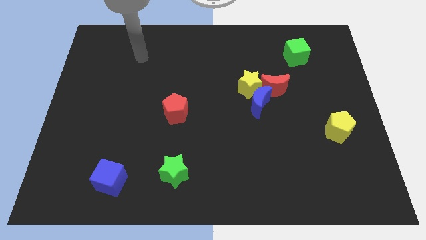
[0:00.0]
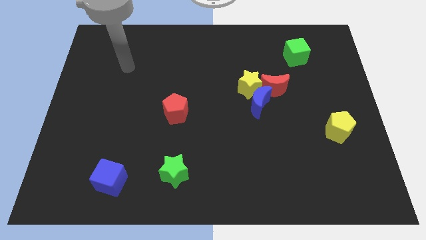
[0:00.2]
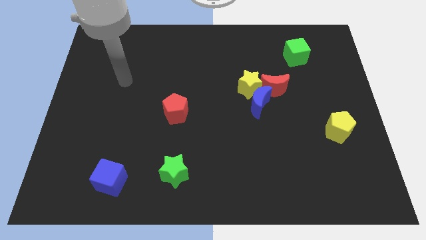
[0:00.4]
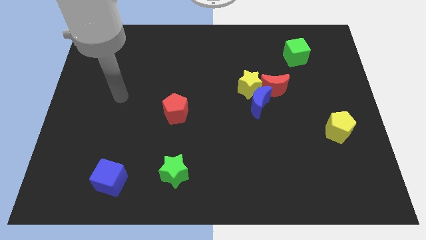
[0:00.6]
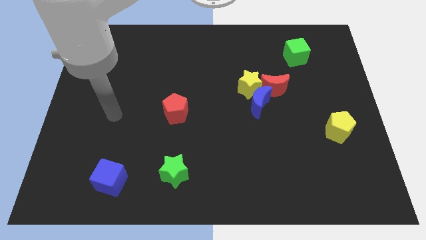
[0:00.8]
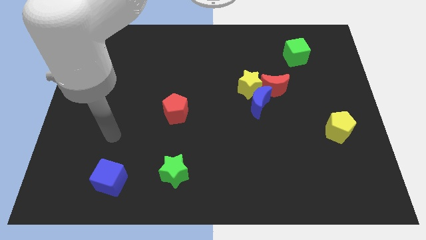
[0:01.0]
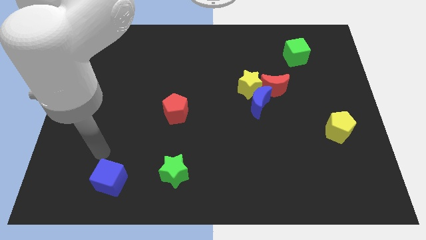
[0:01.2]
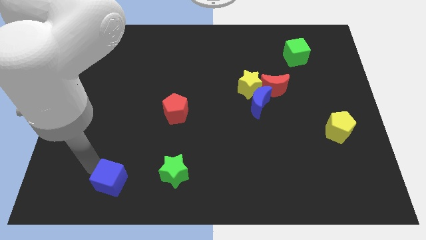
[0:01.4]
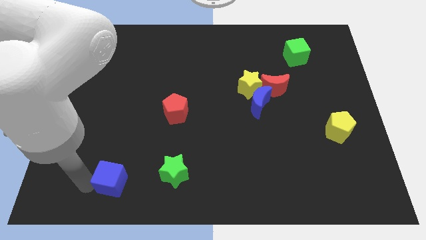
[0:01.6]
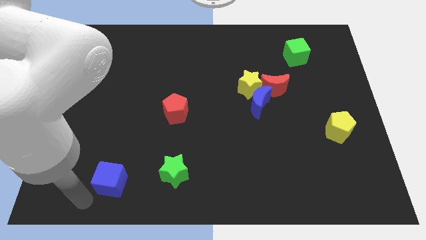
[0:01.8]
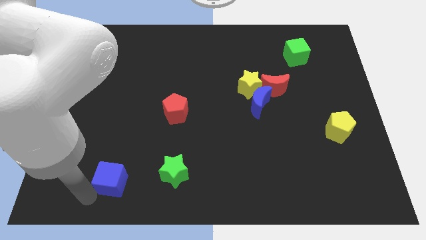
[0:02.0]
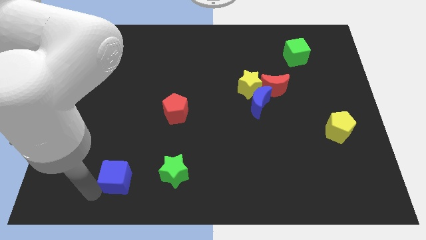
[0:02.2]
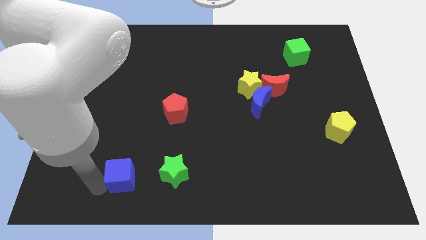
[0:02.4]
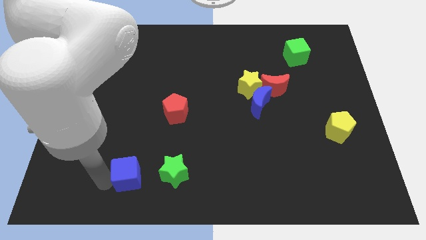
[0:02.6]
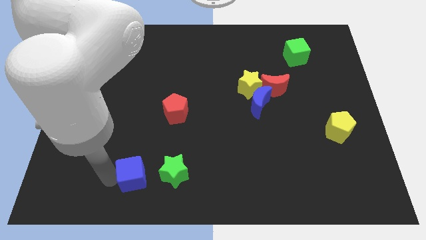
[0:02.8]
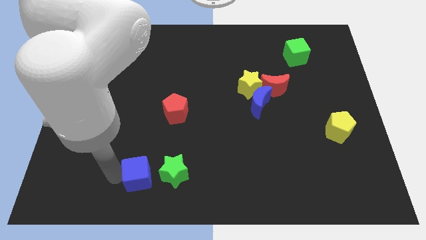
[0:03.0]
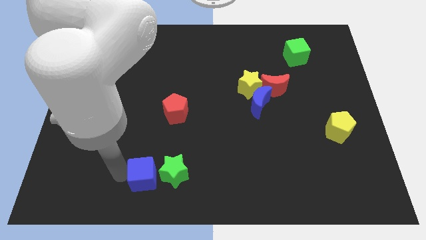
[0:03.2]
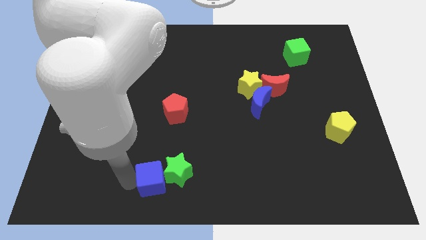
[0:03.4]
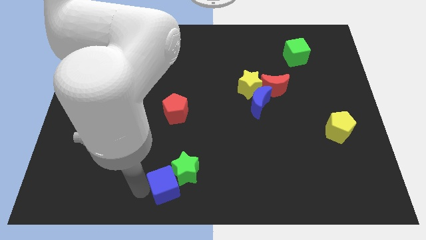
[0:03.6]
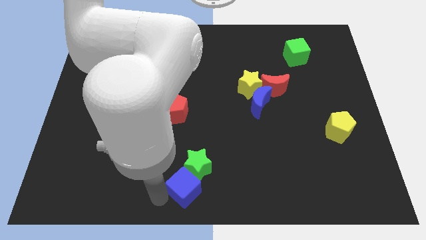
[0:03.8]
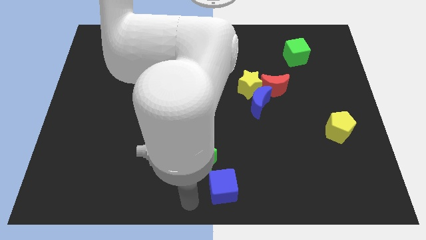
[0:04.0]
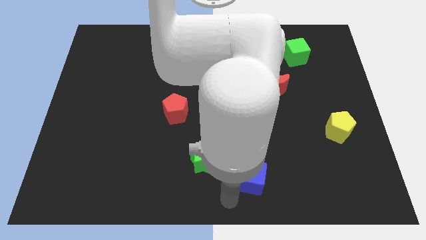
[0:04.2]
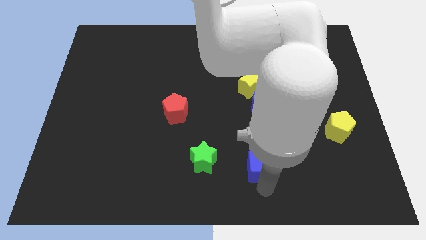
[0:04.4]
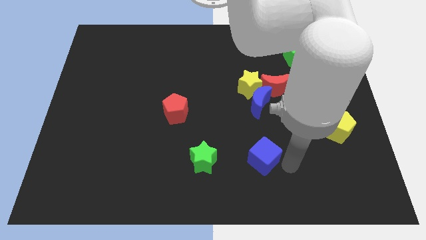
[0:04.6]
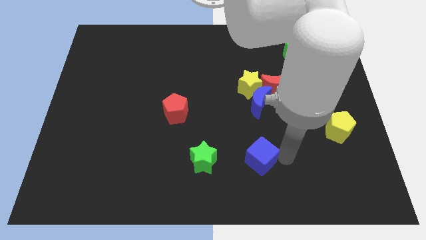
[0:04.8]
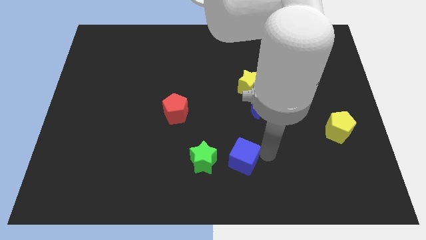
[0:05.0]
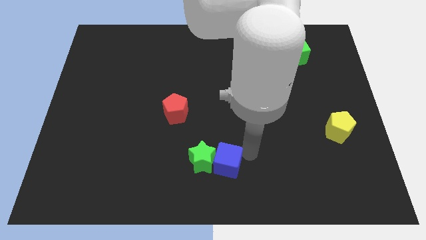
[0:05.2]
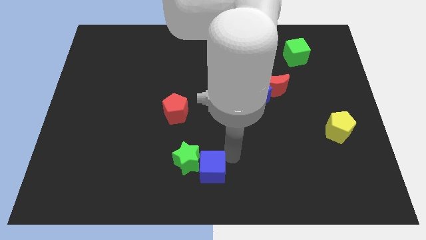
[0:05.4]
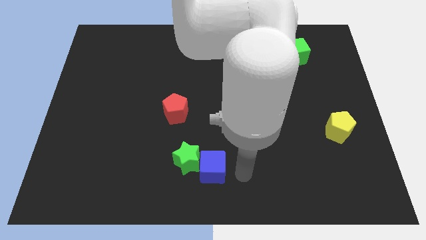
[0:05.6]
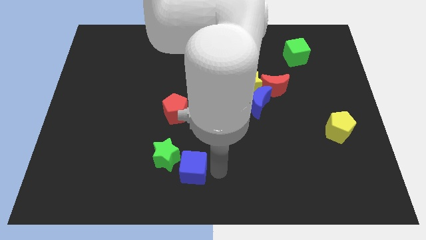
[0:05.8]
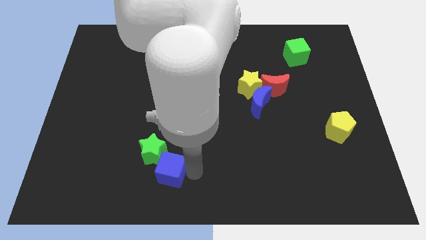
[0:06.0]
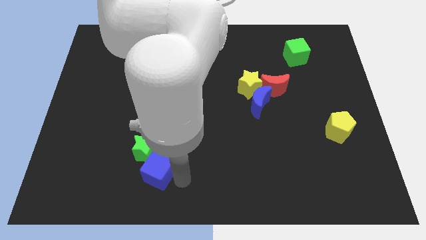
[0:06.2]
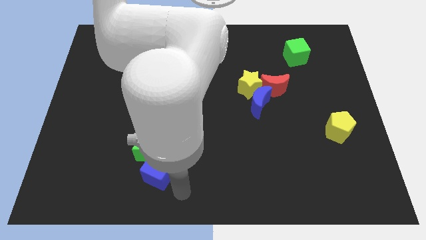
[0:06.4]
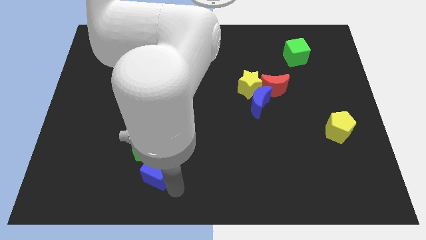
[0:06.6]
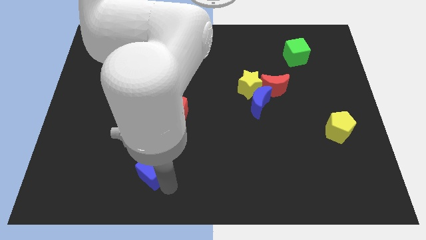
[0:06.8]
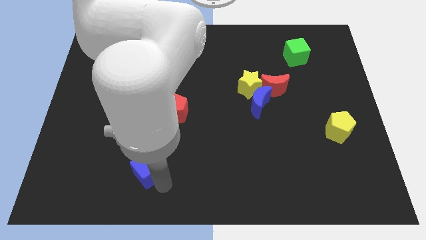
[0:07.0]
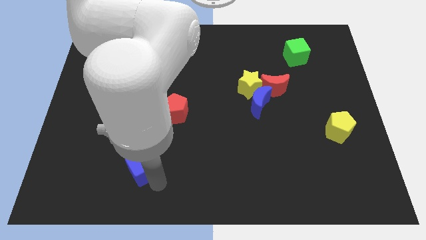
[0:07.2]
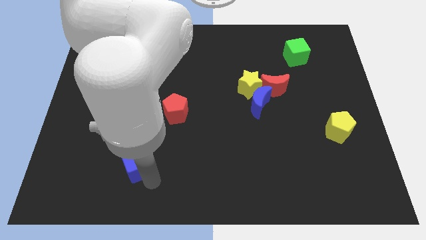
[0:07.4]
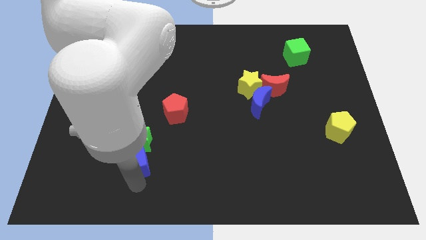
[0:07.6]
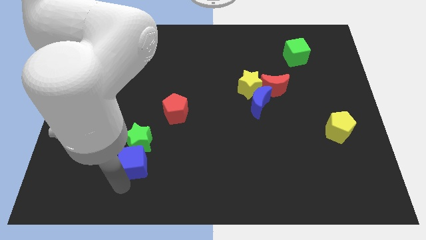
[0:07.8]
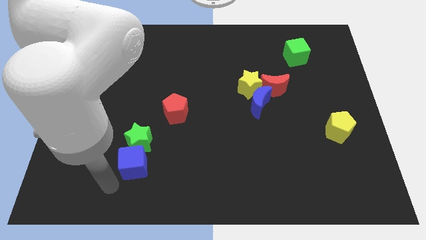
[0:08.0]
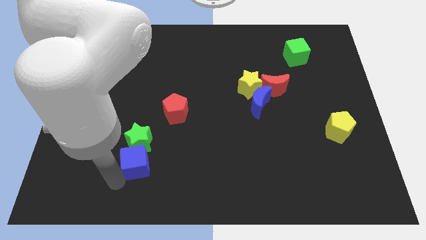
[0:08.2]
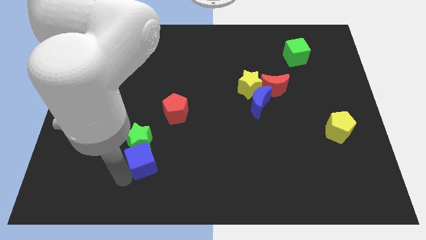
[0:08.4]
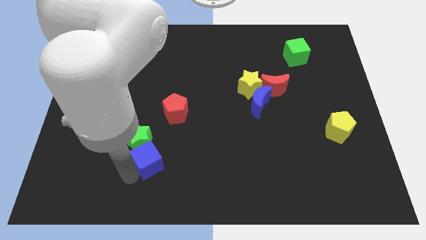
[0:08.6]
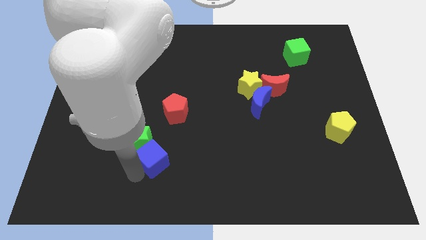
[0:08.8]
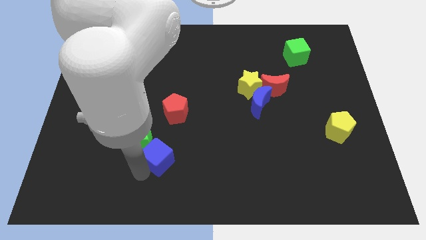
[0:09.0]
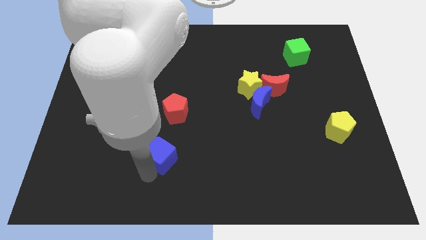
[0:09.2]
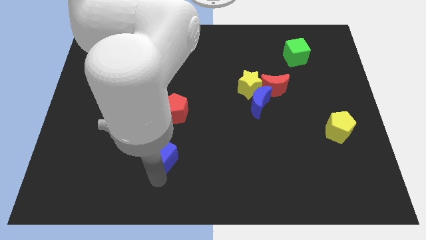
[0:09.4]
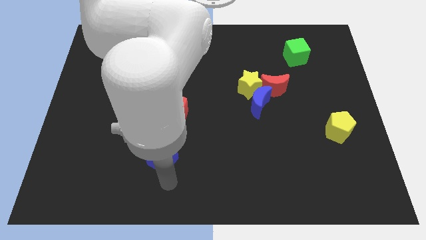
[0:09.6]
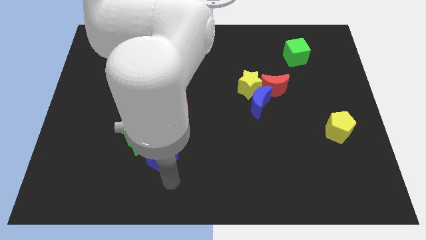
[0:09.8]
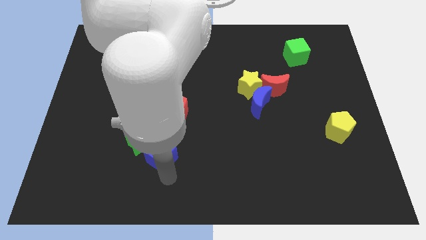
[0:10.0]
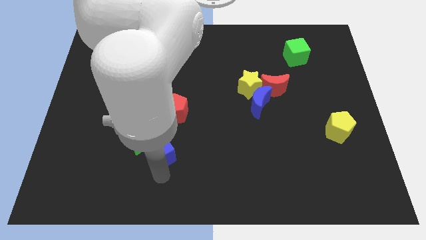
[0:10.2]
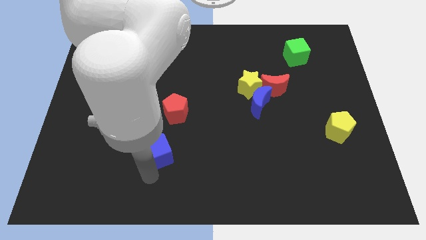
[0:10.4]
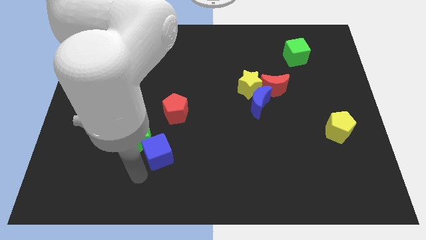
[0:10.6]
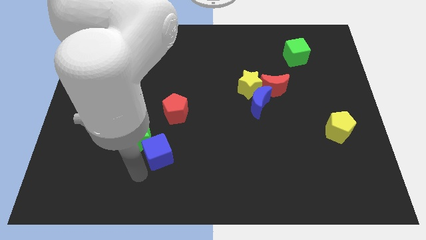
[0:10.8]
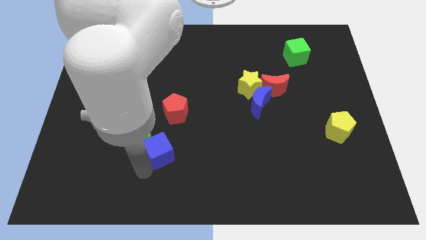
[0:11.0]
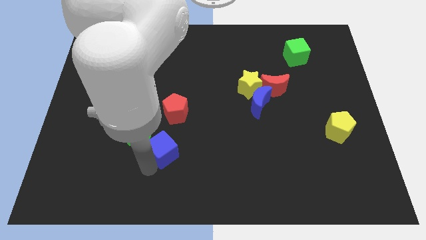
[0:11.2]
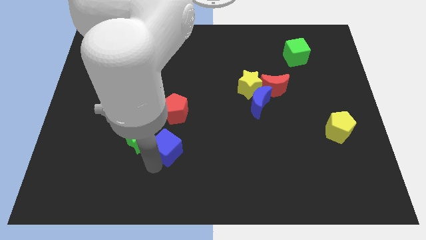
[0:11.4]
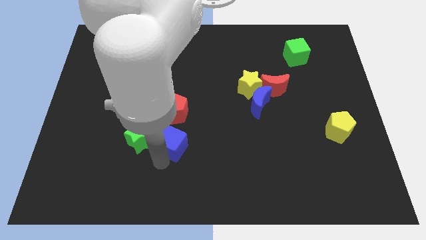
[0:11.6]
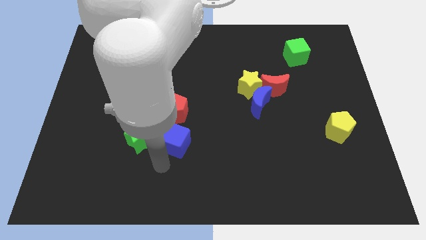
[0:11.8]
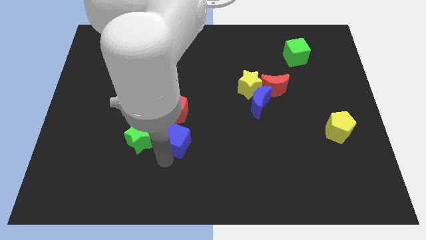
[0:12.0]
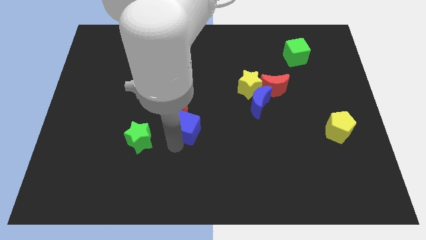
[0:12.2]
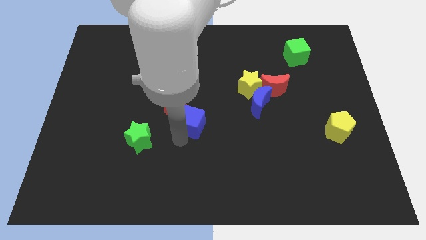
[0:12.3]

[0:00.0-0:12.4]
push the blue cube diagonally upwards and to the right

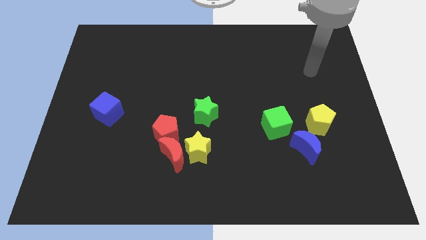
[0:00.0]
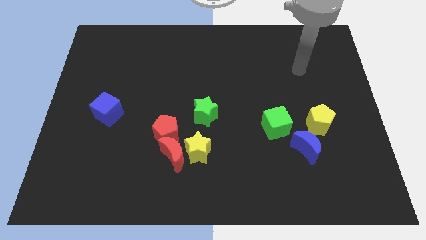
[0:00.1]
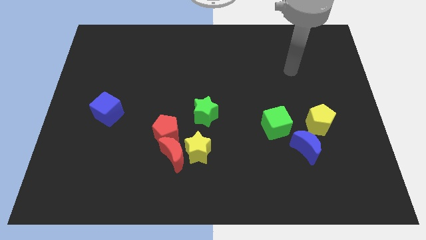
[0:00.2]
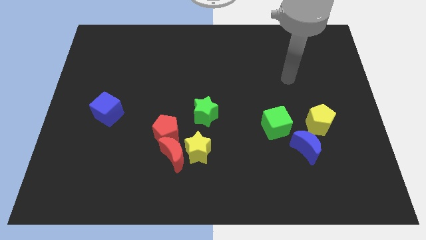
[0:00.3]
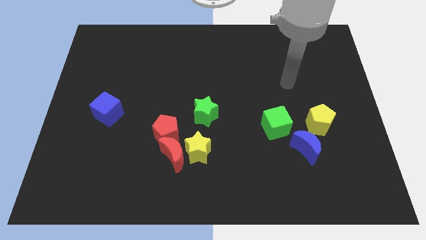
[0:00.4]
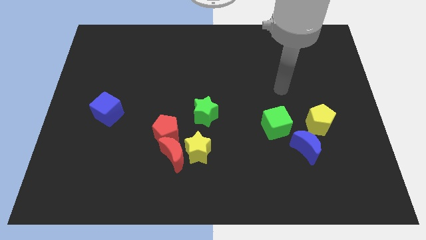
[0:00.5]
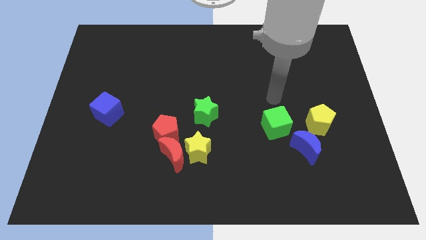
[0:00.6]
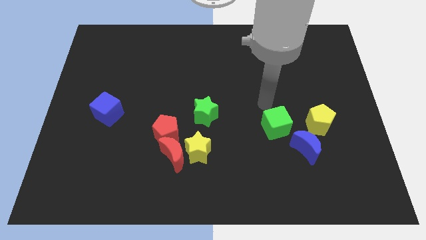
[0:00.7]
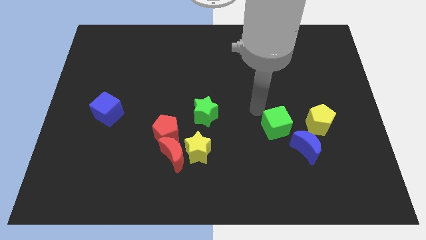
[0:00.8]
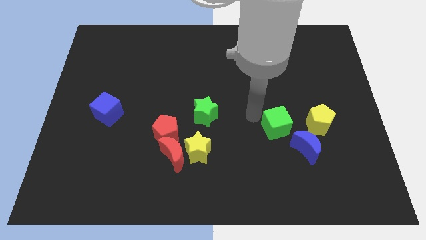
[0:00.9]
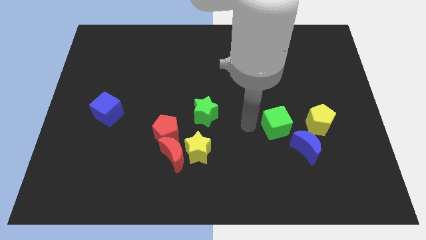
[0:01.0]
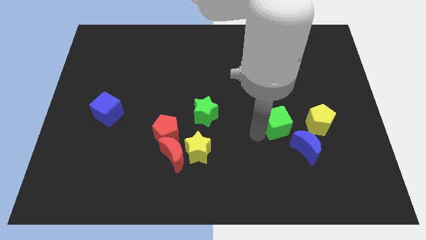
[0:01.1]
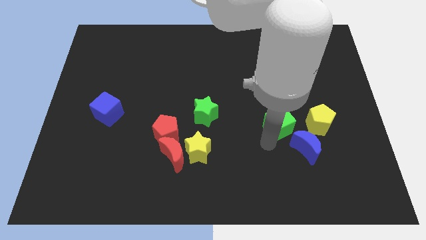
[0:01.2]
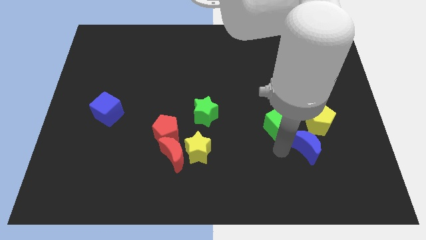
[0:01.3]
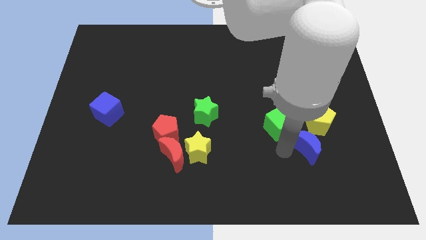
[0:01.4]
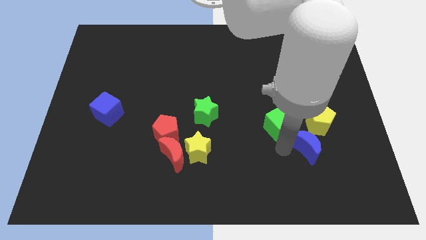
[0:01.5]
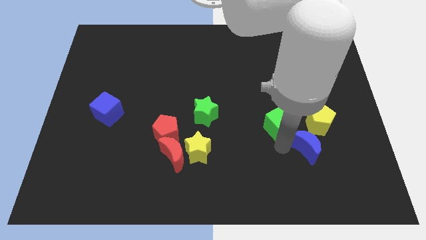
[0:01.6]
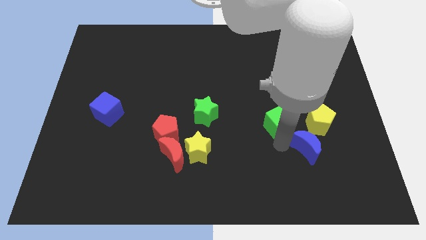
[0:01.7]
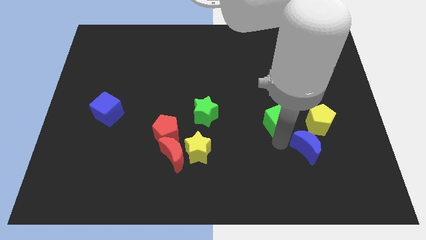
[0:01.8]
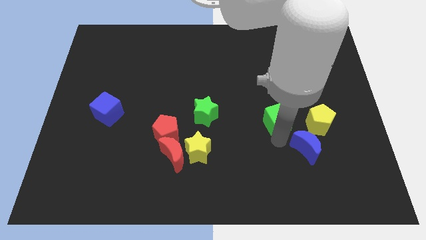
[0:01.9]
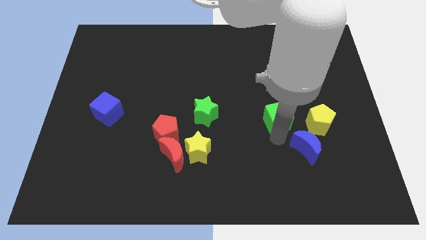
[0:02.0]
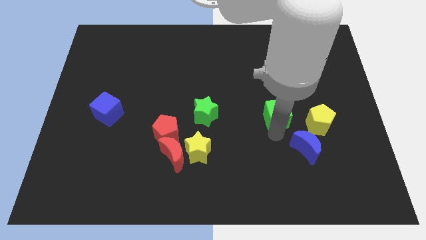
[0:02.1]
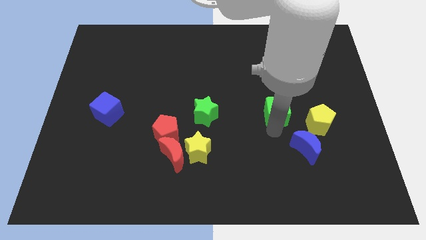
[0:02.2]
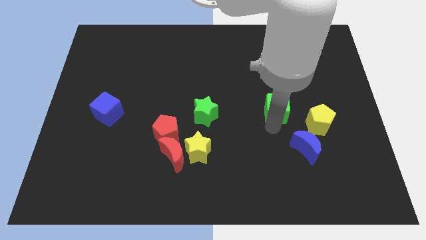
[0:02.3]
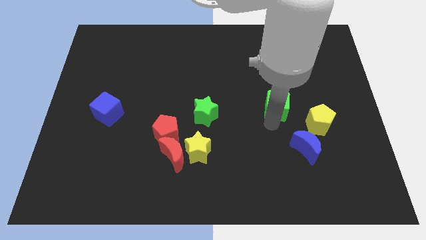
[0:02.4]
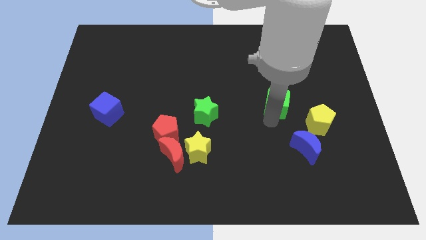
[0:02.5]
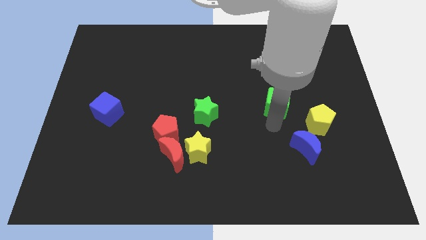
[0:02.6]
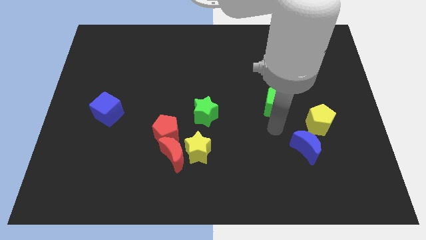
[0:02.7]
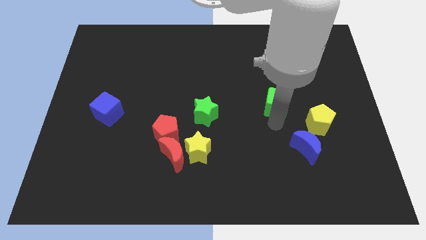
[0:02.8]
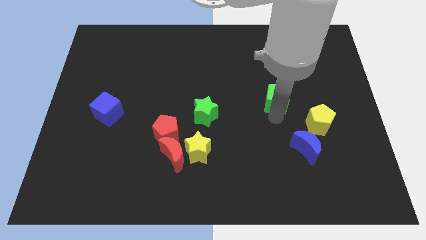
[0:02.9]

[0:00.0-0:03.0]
slide the green cube a little upwards
